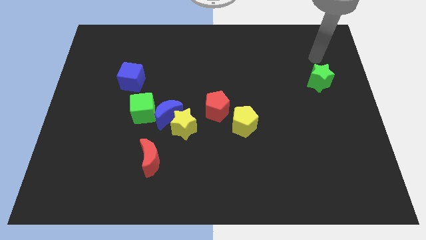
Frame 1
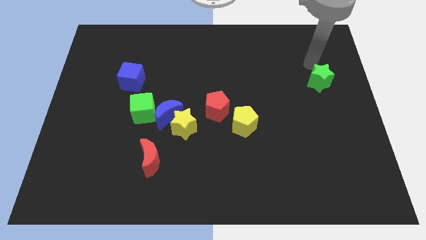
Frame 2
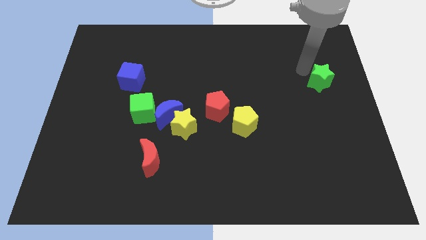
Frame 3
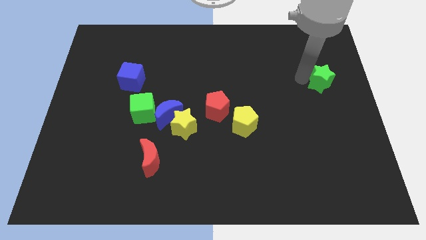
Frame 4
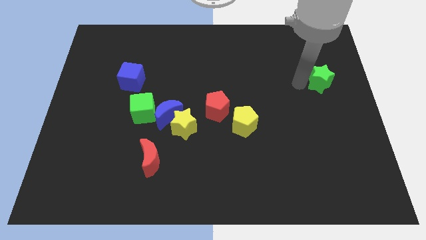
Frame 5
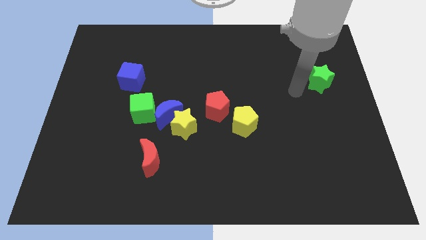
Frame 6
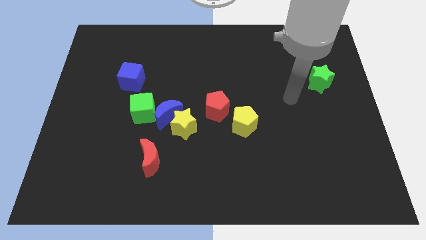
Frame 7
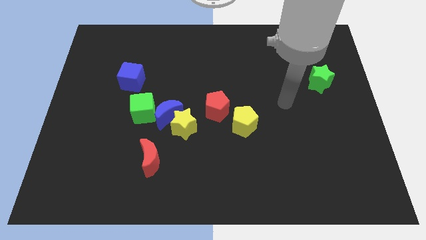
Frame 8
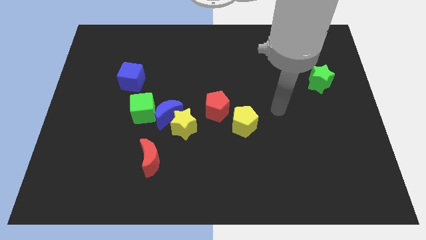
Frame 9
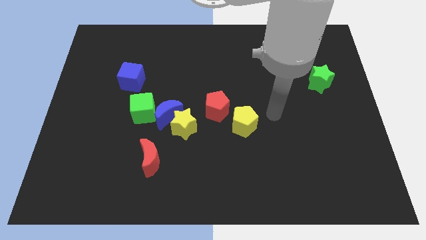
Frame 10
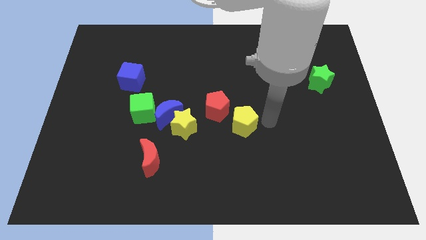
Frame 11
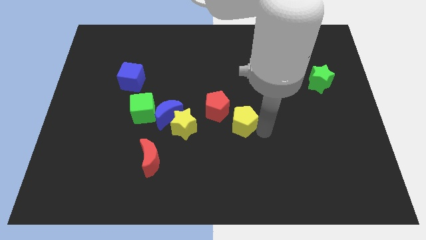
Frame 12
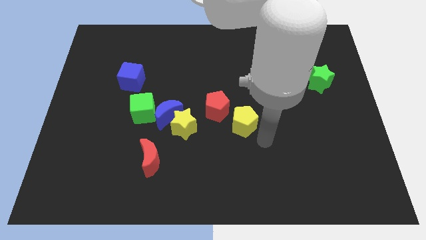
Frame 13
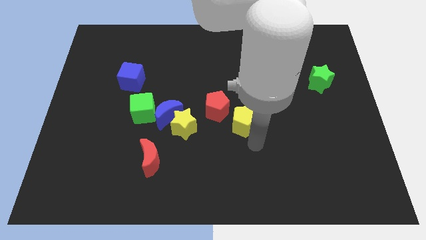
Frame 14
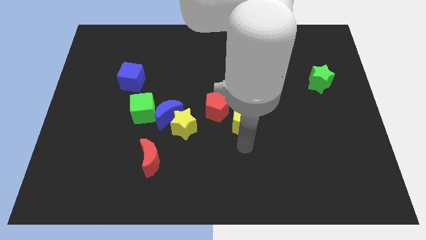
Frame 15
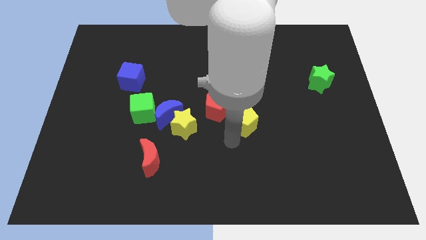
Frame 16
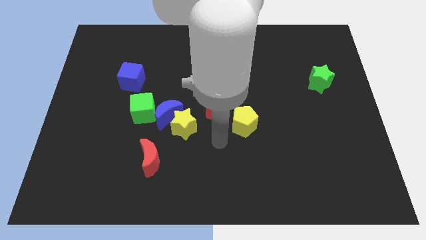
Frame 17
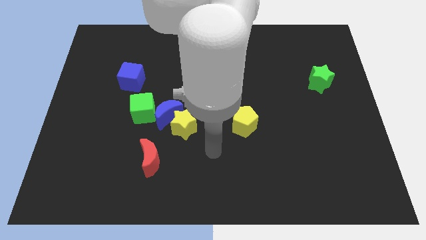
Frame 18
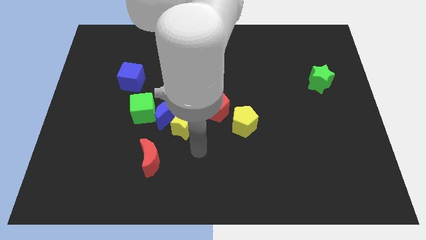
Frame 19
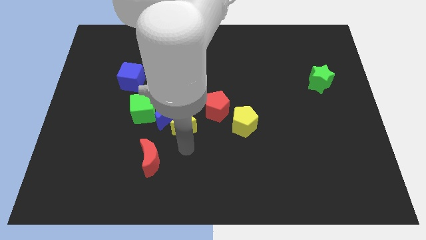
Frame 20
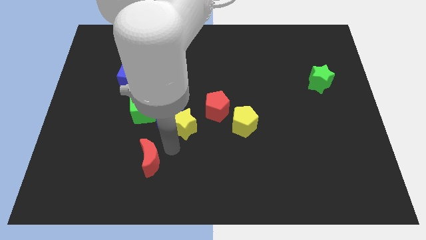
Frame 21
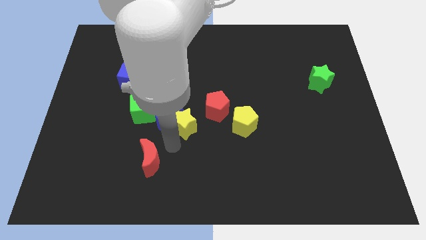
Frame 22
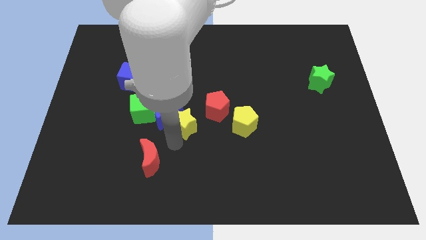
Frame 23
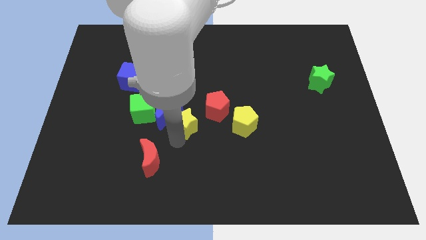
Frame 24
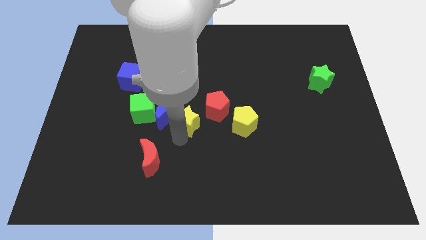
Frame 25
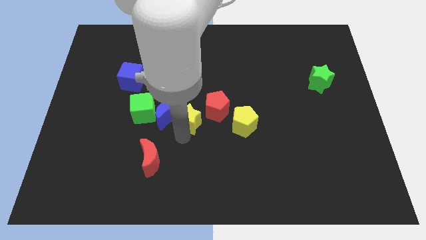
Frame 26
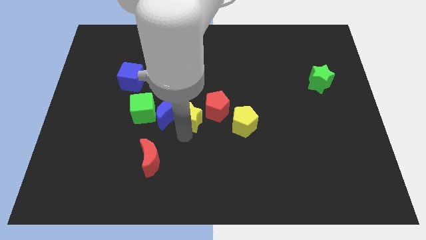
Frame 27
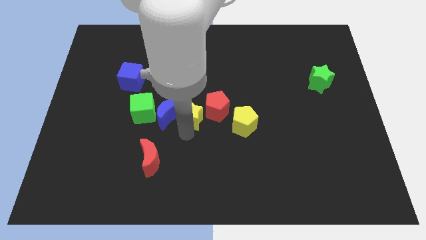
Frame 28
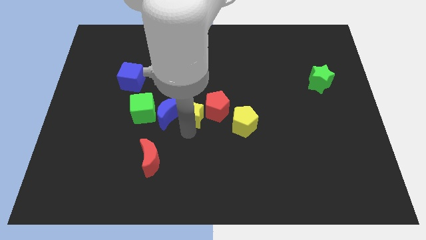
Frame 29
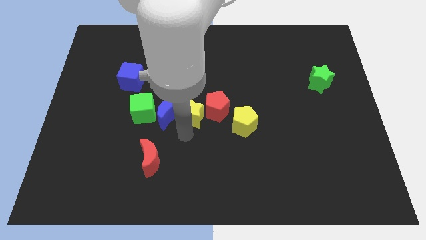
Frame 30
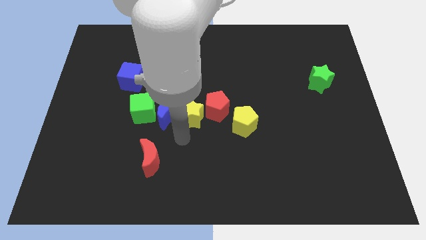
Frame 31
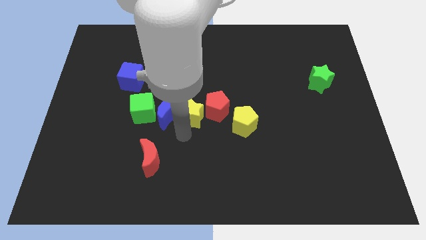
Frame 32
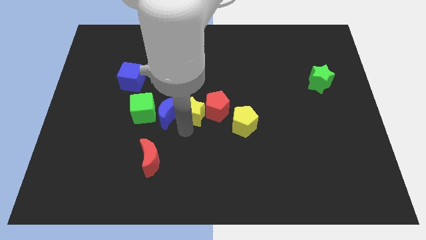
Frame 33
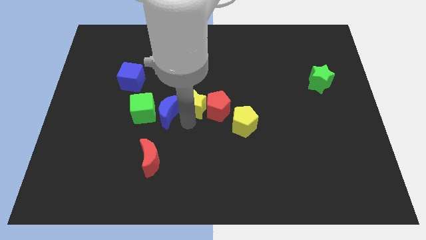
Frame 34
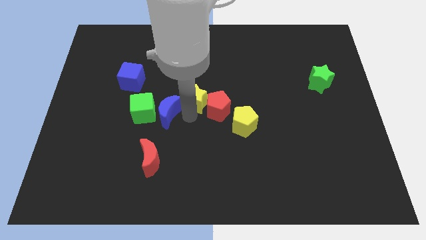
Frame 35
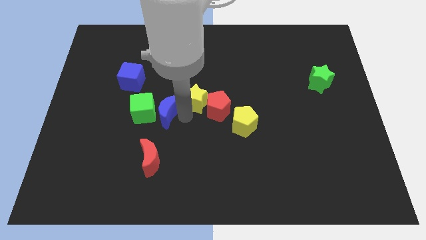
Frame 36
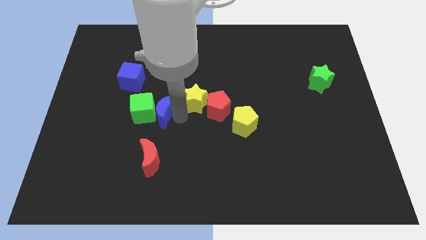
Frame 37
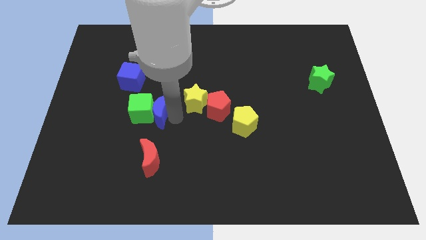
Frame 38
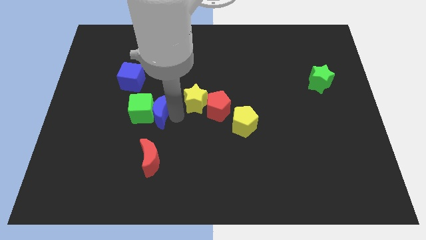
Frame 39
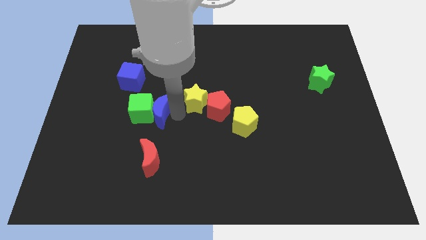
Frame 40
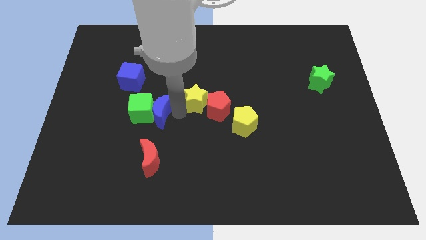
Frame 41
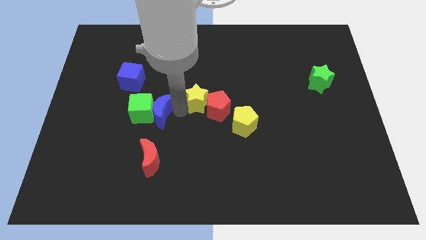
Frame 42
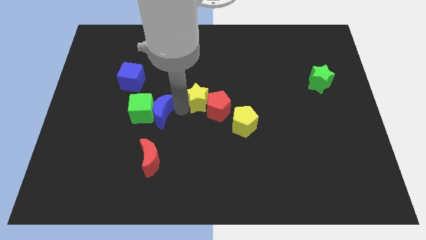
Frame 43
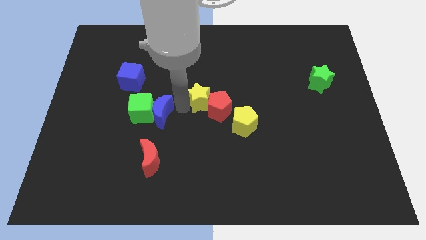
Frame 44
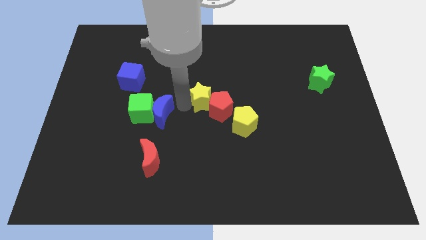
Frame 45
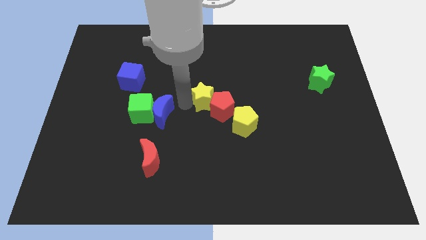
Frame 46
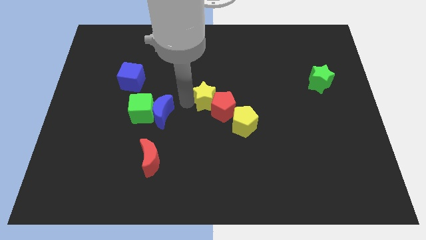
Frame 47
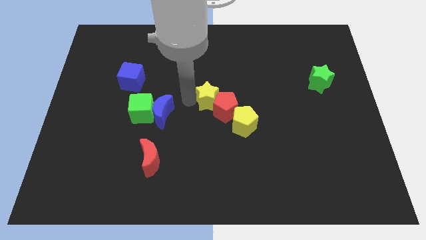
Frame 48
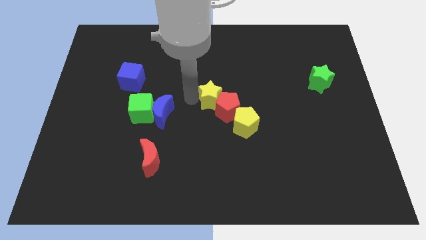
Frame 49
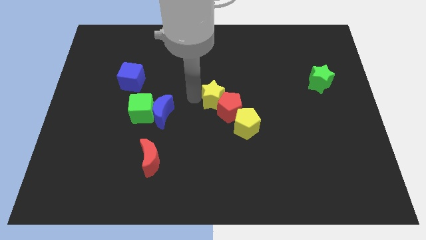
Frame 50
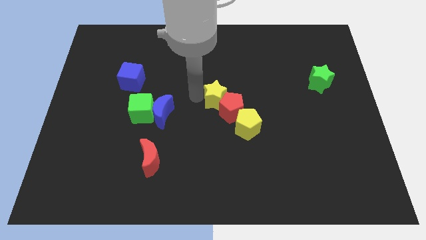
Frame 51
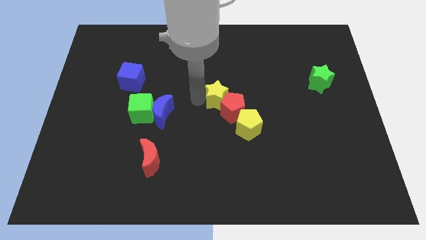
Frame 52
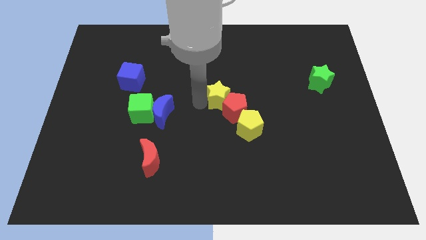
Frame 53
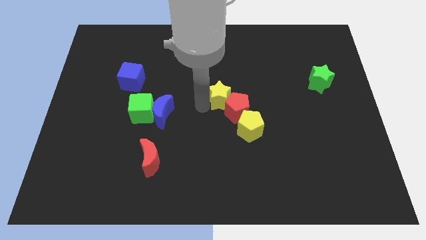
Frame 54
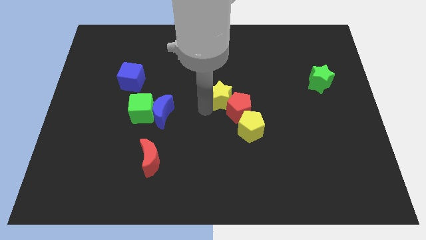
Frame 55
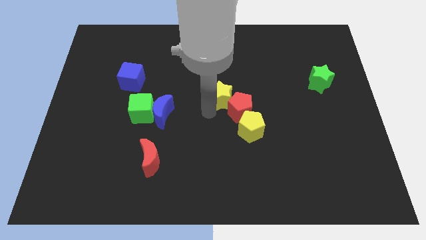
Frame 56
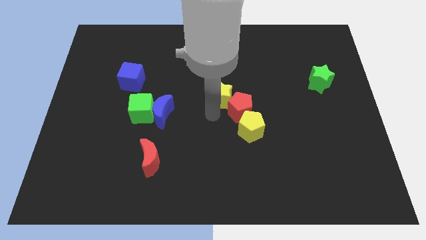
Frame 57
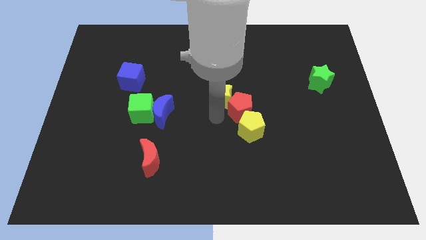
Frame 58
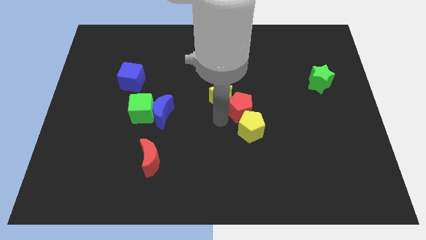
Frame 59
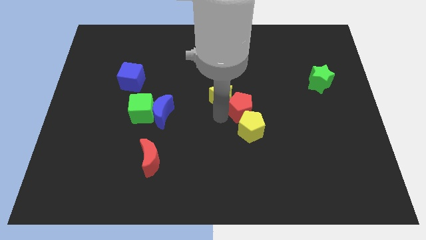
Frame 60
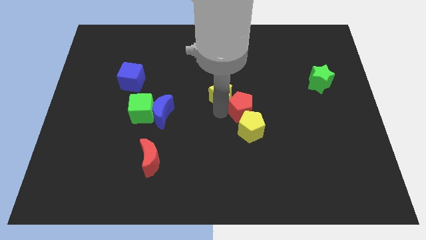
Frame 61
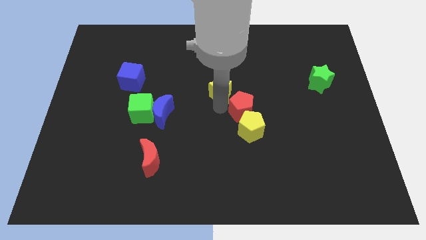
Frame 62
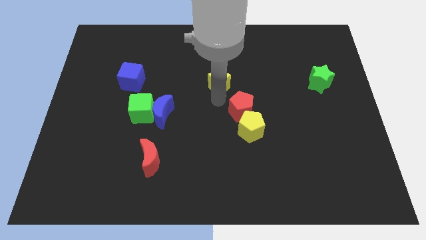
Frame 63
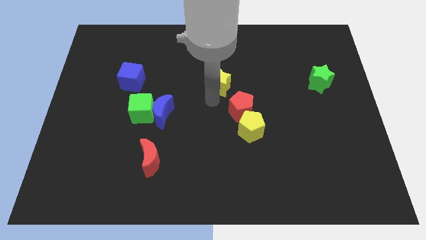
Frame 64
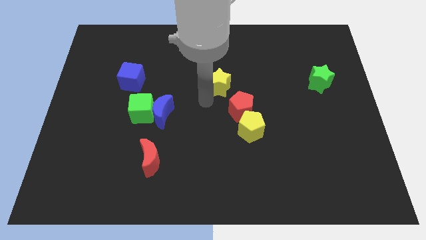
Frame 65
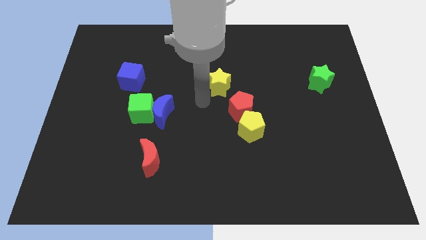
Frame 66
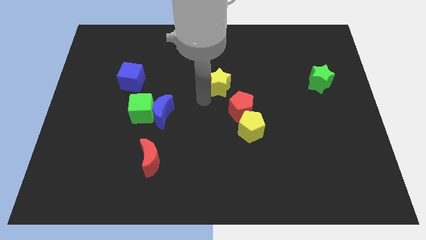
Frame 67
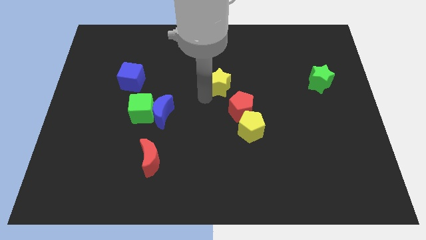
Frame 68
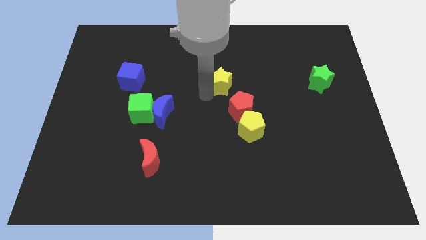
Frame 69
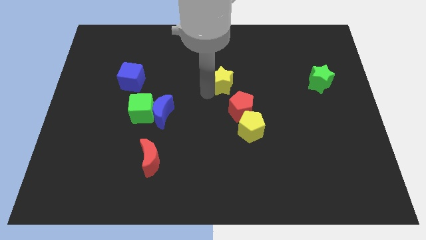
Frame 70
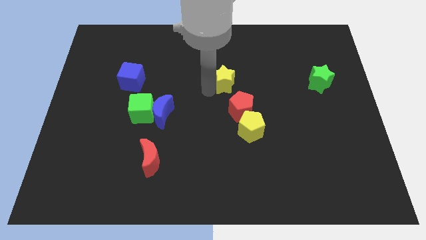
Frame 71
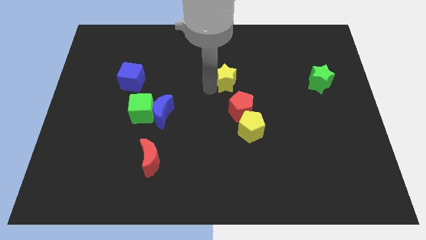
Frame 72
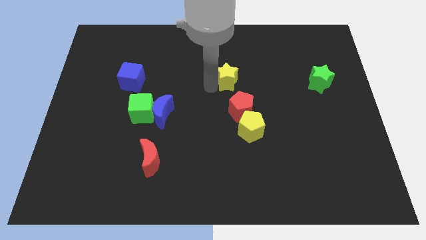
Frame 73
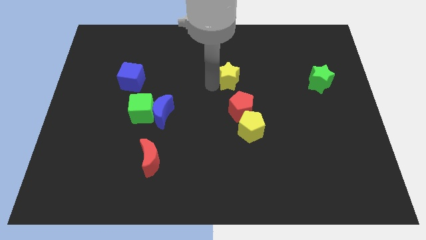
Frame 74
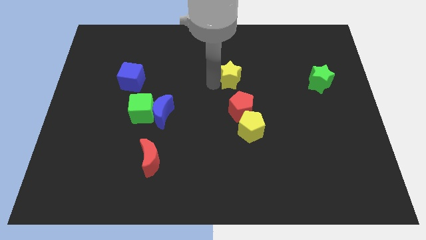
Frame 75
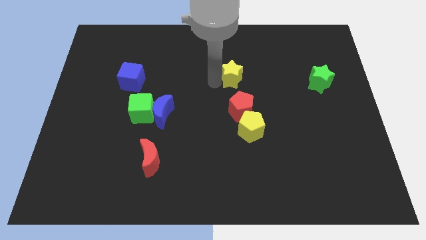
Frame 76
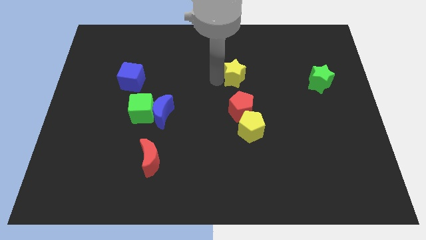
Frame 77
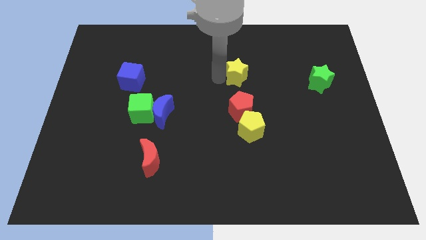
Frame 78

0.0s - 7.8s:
slide the yellow star diagonally up and right
